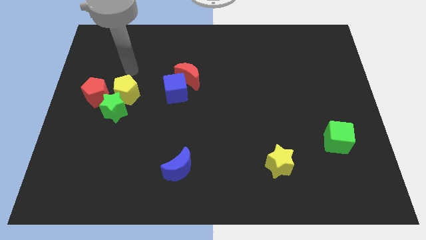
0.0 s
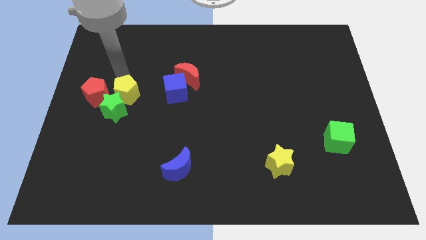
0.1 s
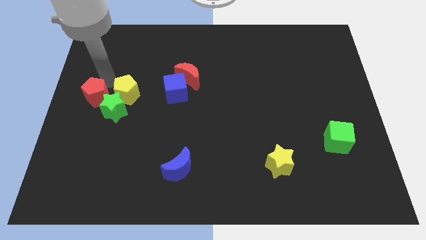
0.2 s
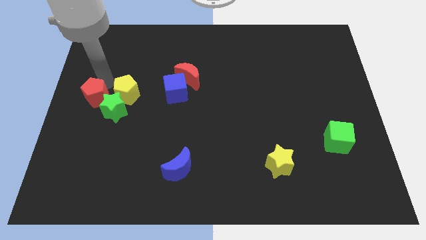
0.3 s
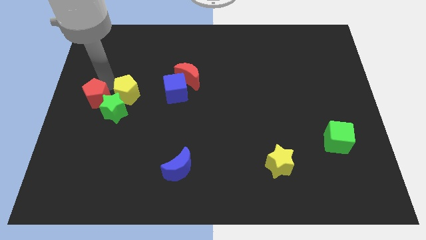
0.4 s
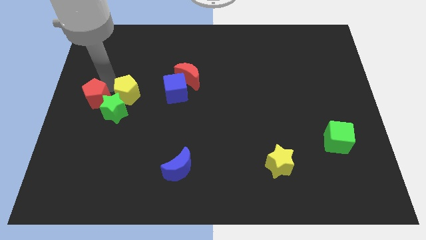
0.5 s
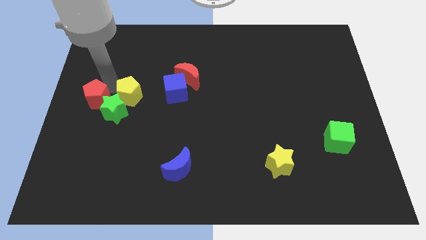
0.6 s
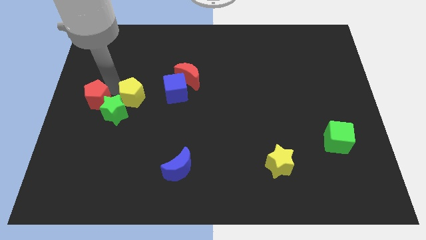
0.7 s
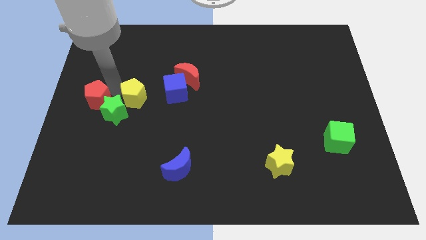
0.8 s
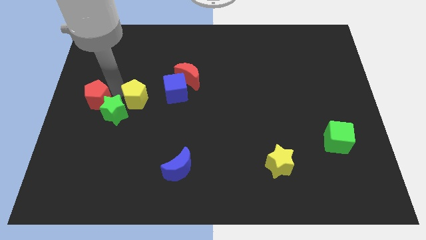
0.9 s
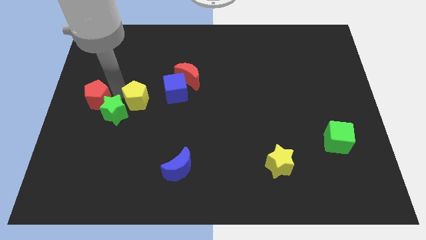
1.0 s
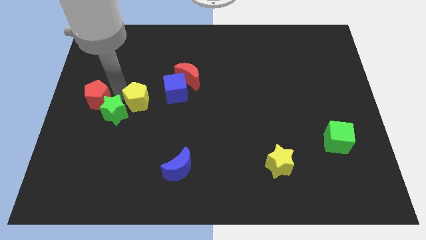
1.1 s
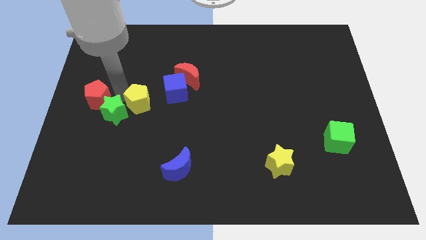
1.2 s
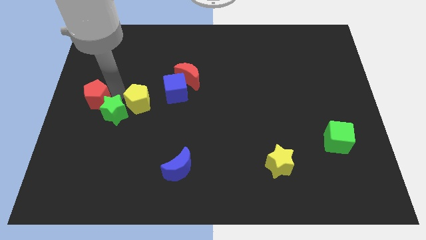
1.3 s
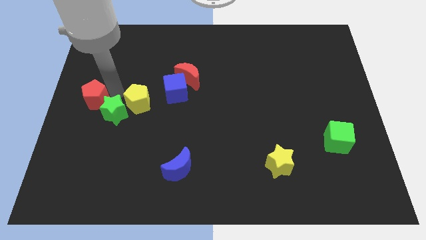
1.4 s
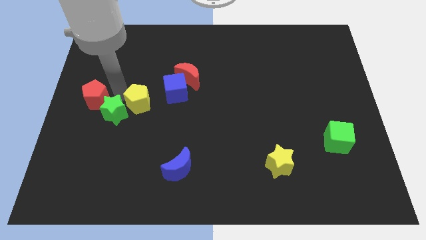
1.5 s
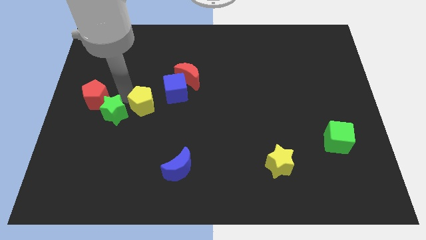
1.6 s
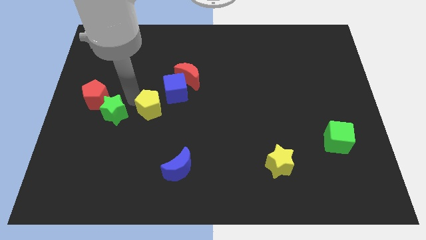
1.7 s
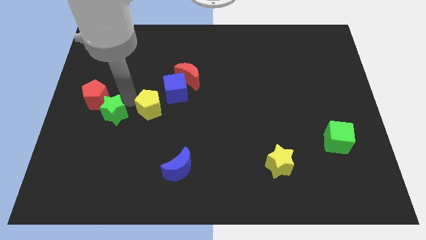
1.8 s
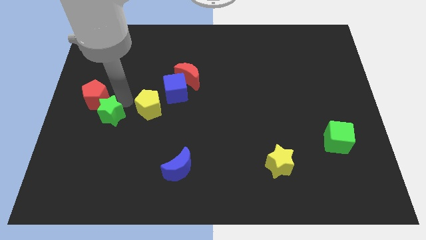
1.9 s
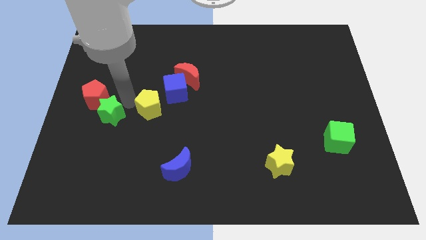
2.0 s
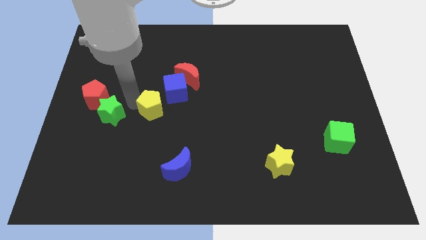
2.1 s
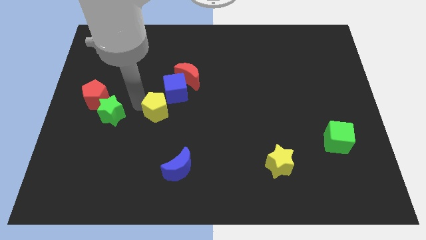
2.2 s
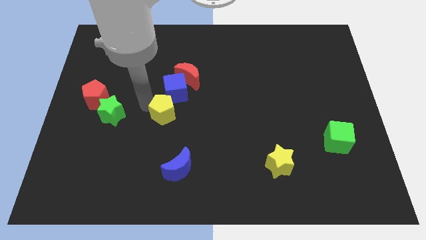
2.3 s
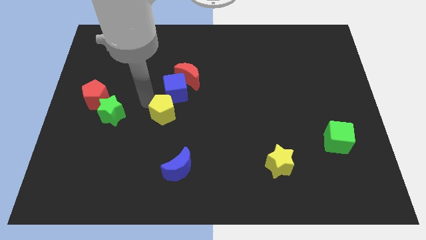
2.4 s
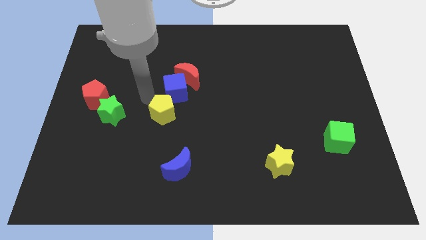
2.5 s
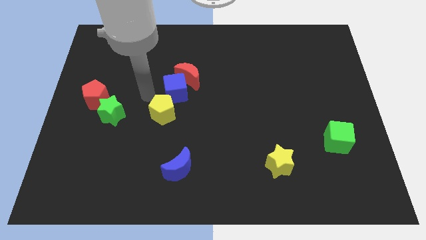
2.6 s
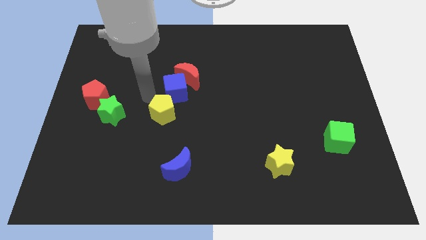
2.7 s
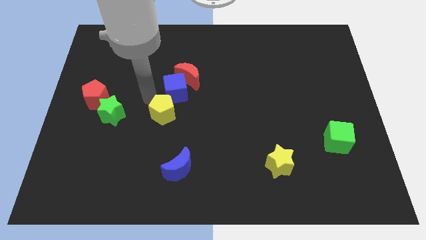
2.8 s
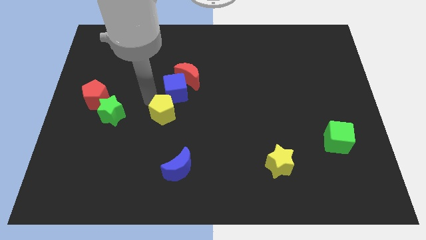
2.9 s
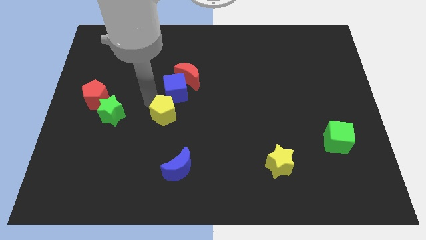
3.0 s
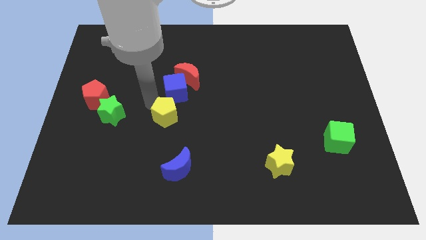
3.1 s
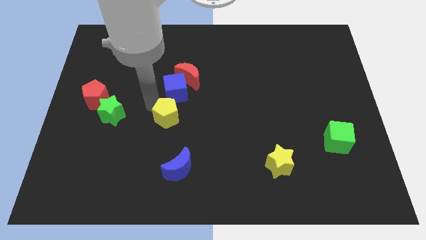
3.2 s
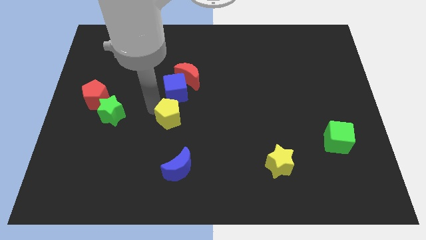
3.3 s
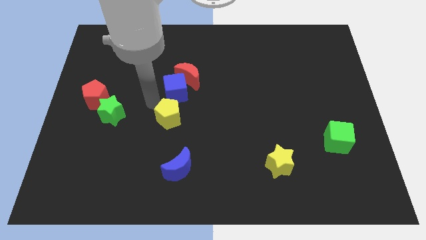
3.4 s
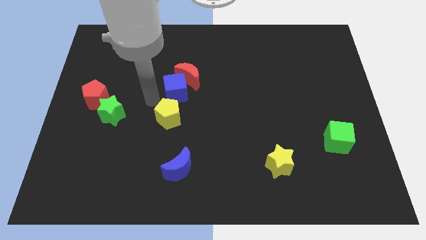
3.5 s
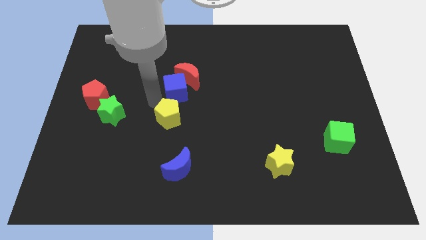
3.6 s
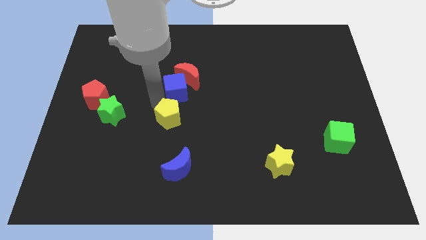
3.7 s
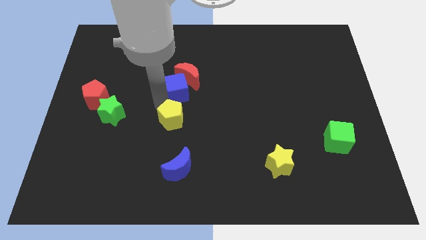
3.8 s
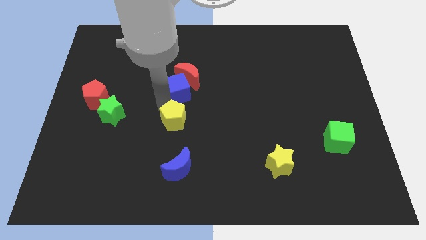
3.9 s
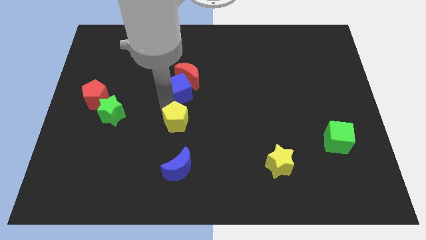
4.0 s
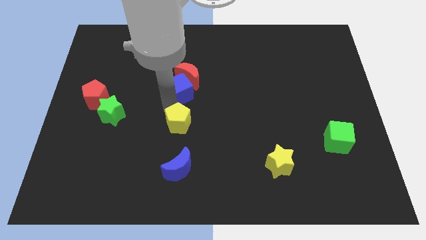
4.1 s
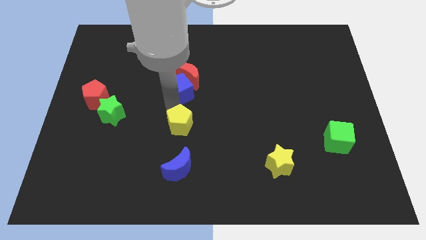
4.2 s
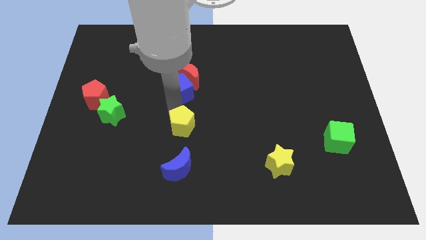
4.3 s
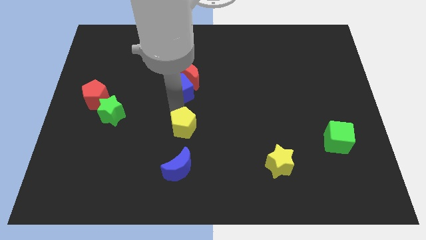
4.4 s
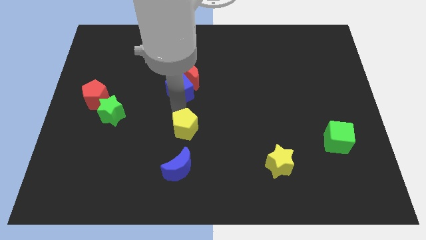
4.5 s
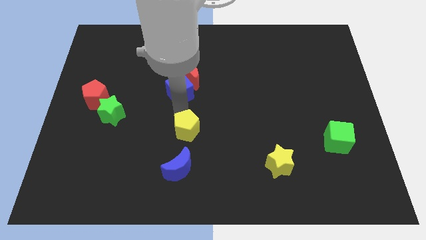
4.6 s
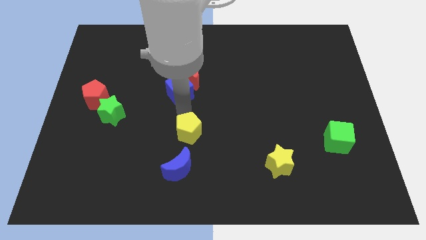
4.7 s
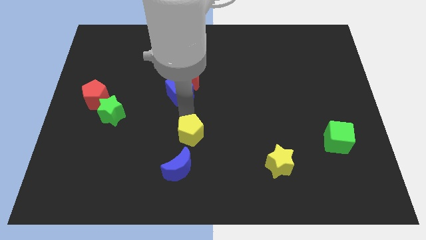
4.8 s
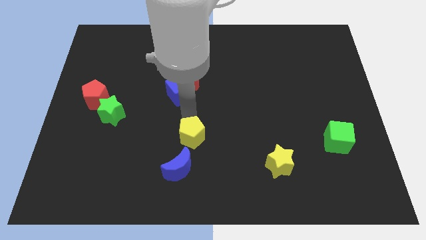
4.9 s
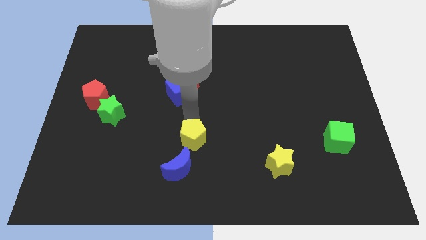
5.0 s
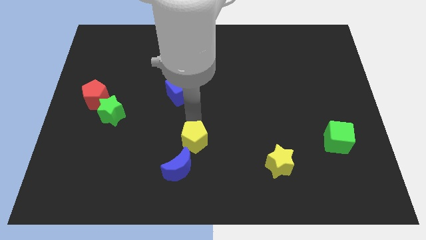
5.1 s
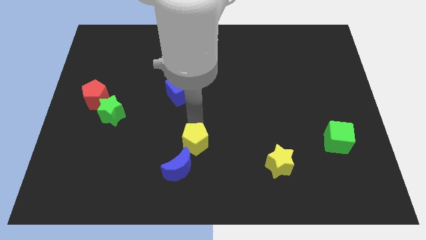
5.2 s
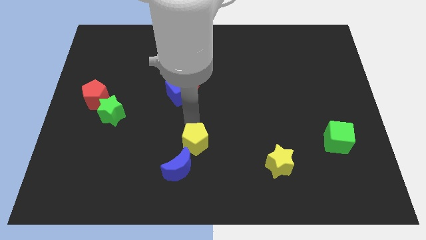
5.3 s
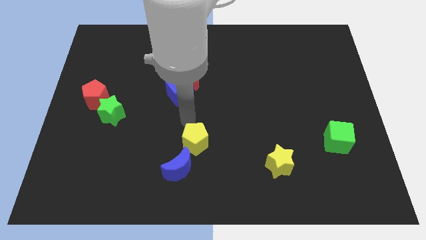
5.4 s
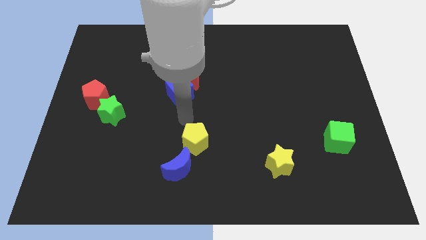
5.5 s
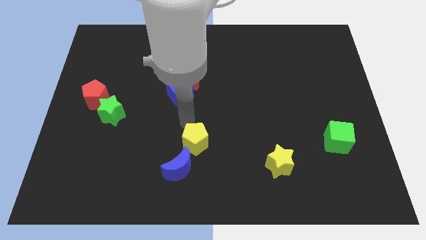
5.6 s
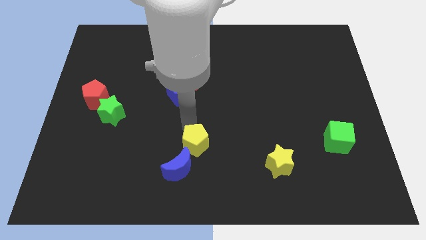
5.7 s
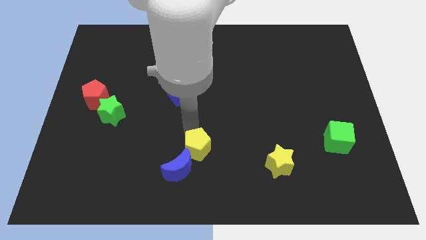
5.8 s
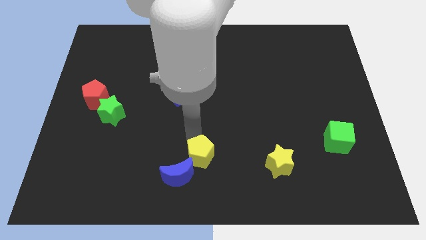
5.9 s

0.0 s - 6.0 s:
move the yellow pentagon to the bottom side

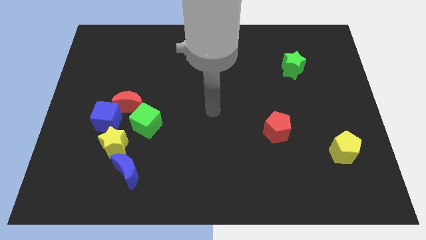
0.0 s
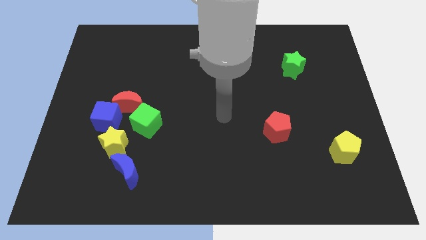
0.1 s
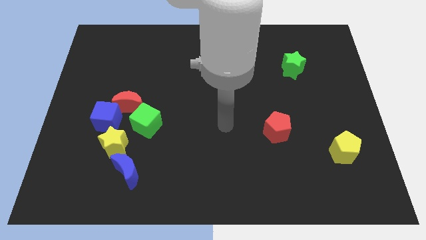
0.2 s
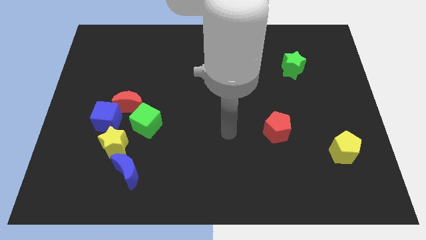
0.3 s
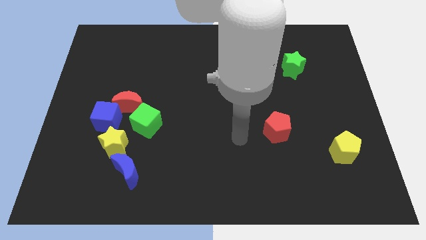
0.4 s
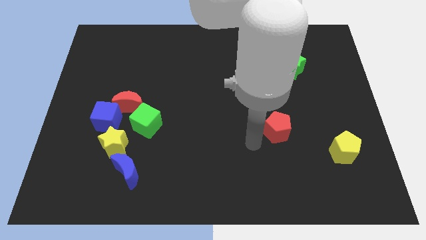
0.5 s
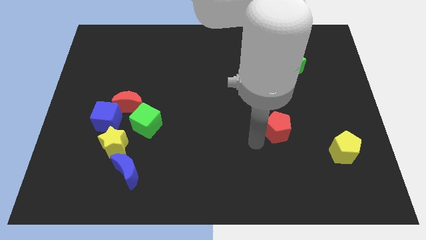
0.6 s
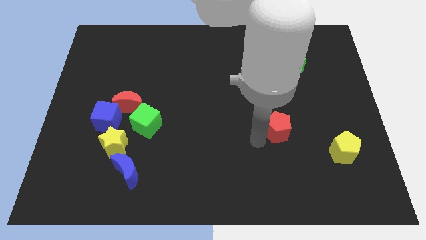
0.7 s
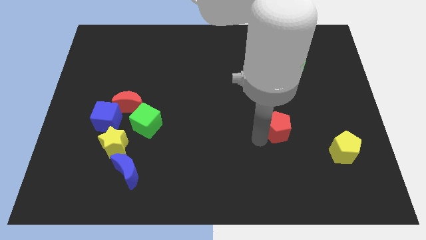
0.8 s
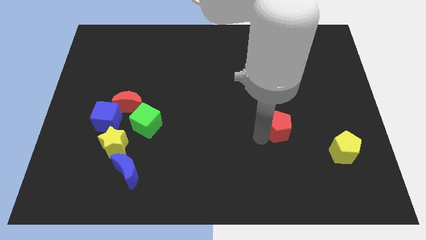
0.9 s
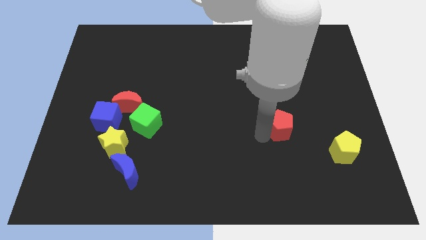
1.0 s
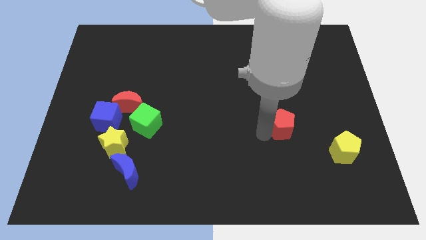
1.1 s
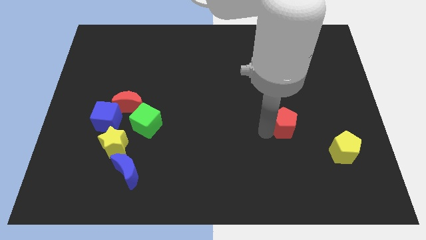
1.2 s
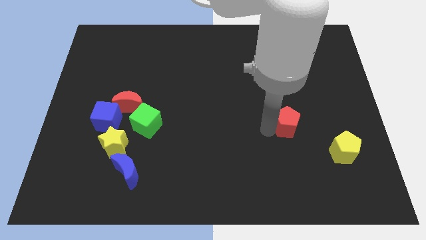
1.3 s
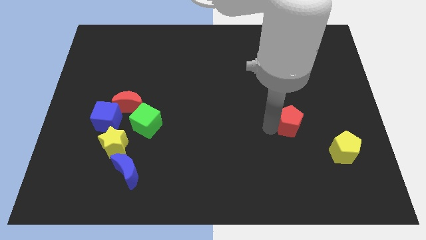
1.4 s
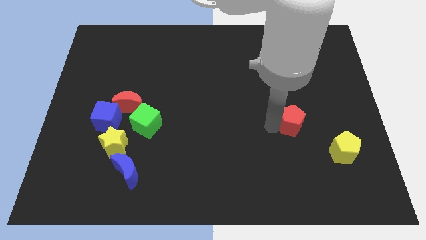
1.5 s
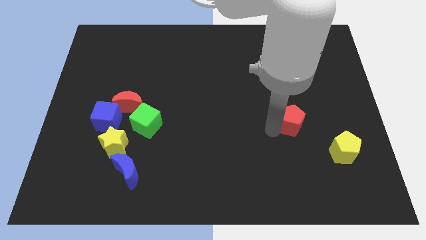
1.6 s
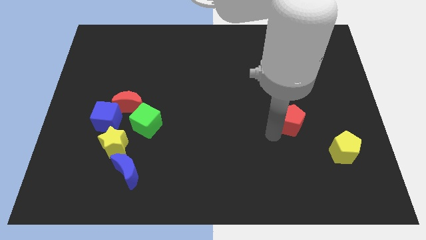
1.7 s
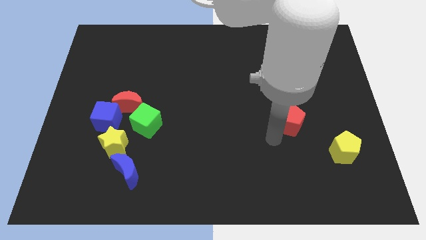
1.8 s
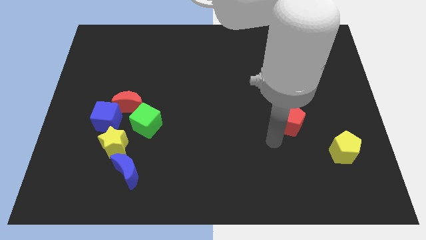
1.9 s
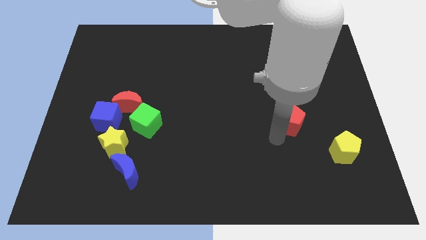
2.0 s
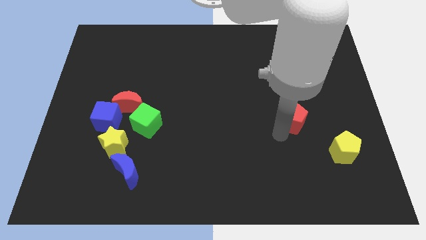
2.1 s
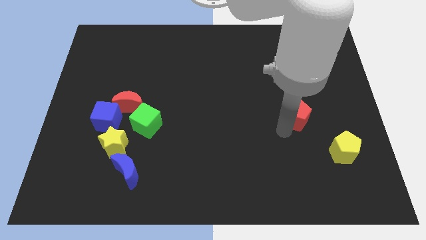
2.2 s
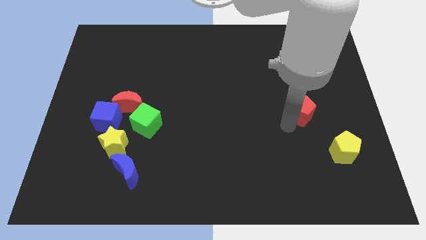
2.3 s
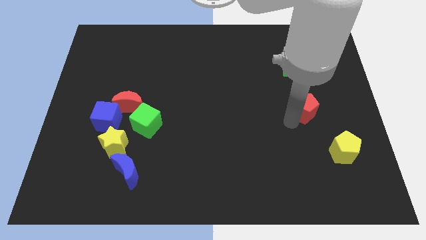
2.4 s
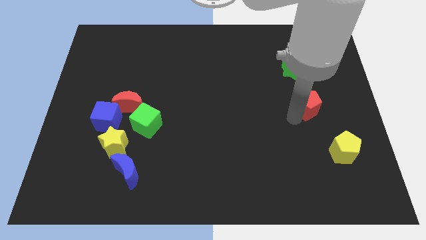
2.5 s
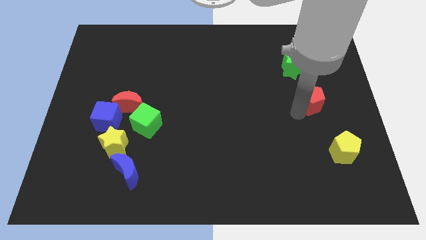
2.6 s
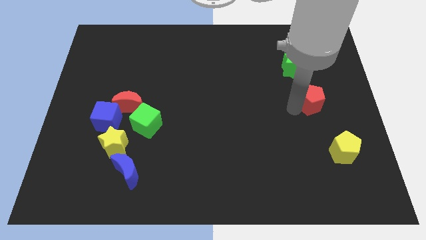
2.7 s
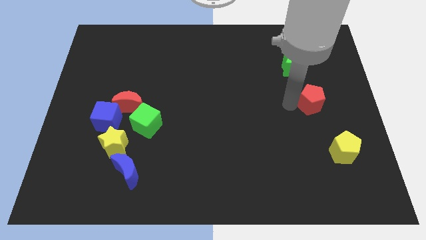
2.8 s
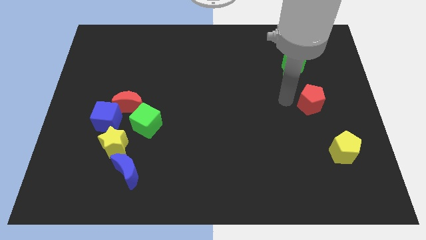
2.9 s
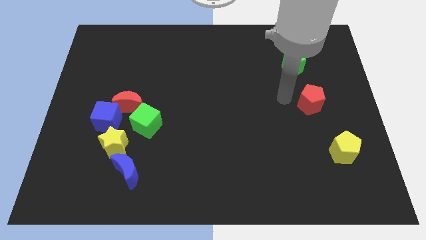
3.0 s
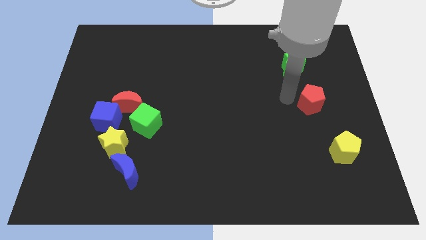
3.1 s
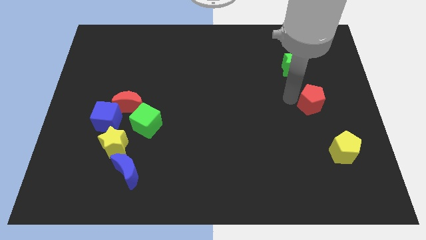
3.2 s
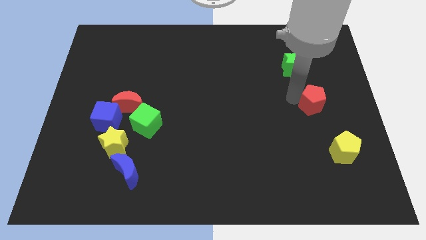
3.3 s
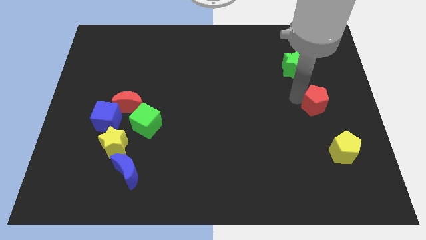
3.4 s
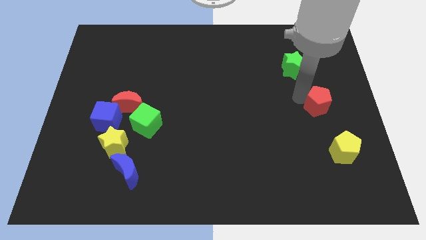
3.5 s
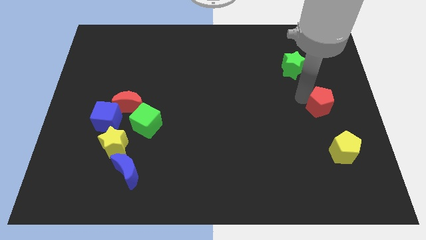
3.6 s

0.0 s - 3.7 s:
push the red pentagon to the center right
